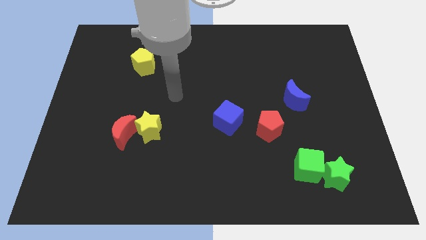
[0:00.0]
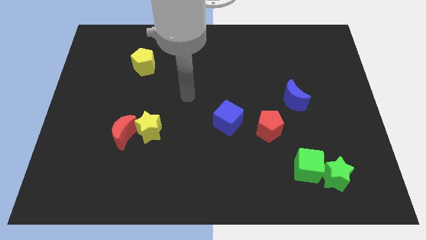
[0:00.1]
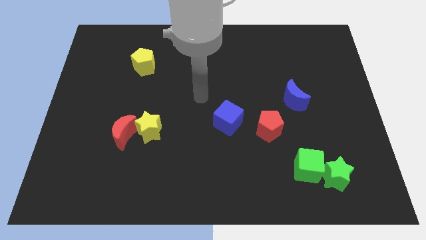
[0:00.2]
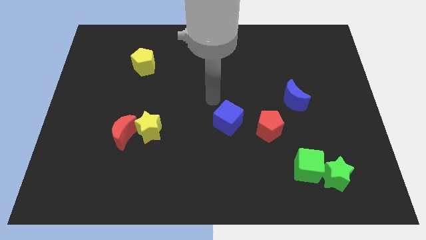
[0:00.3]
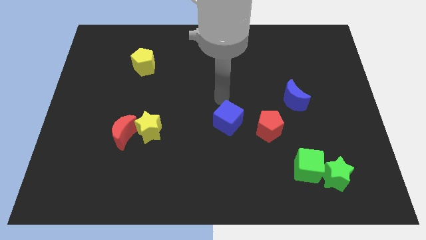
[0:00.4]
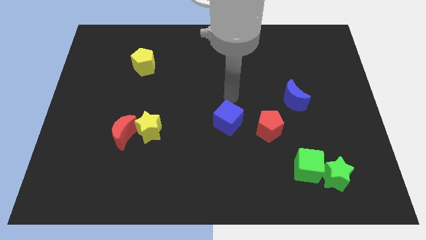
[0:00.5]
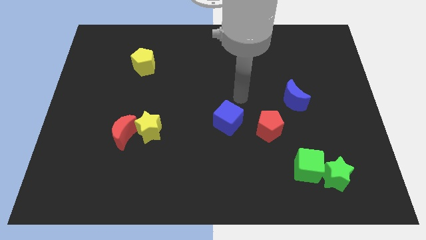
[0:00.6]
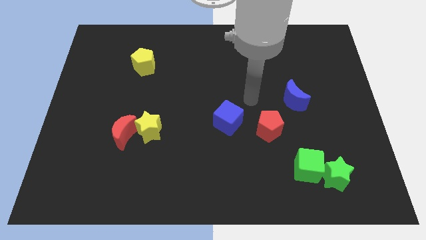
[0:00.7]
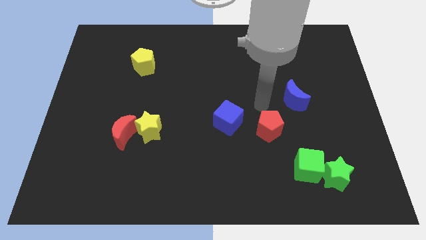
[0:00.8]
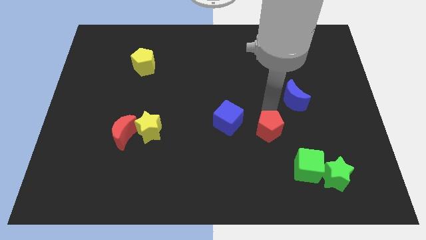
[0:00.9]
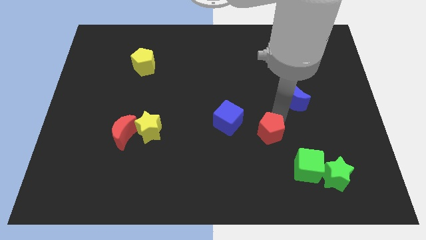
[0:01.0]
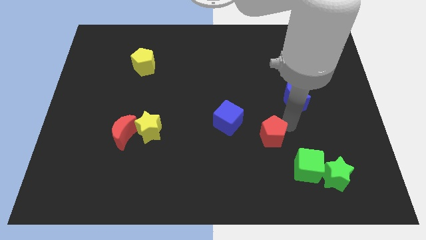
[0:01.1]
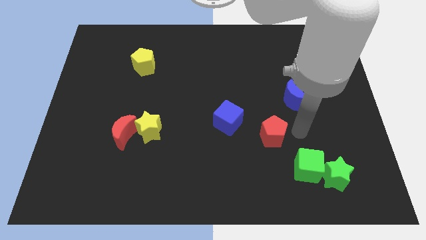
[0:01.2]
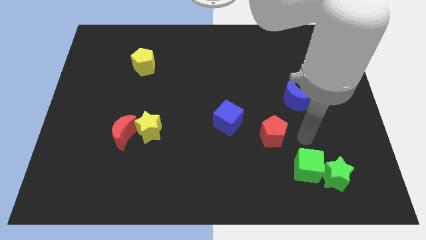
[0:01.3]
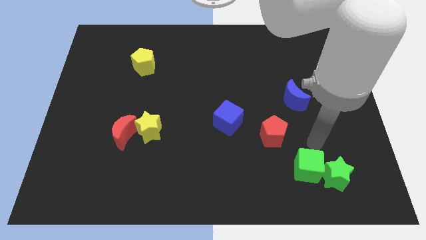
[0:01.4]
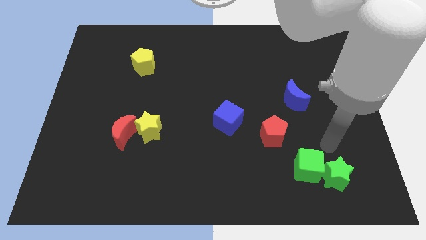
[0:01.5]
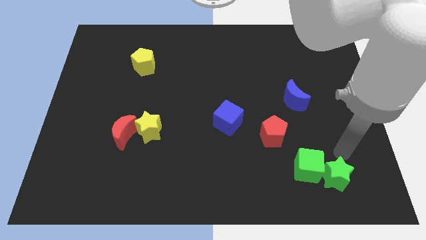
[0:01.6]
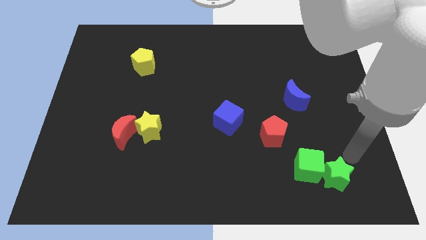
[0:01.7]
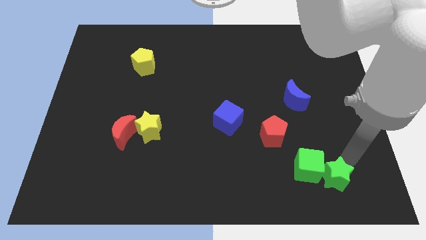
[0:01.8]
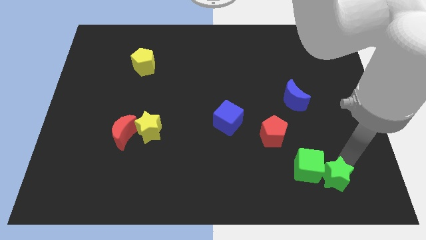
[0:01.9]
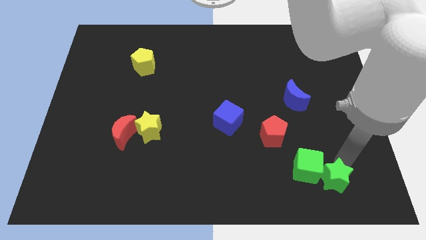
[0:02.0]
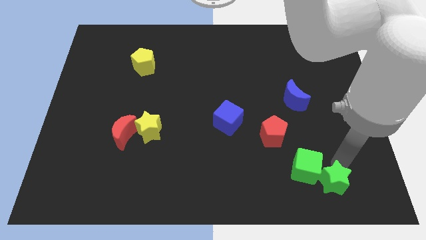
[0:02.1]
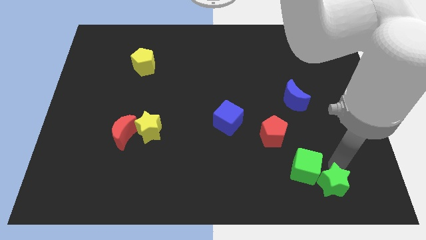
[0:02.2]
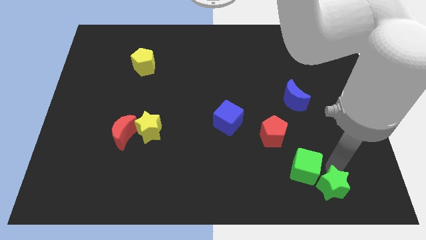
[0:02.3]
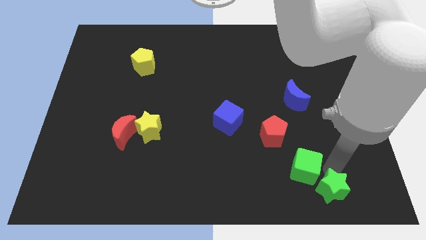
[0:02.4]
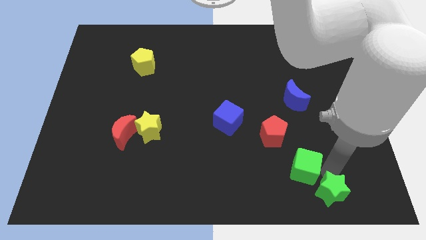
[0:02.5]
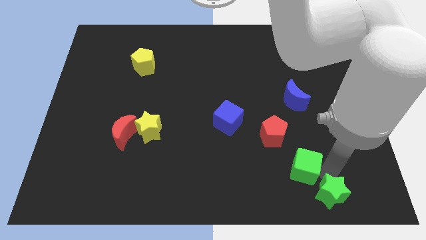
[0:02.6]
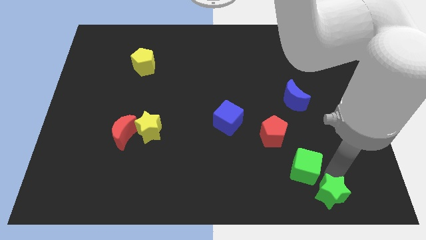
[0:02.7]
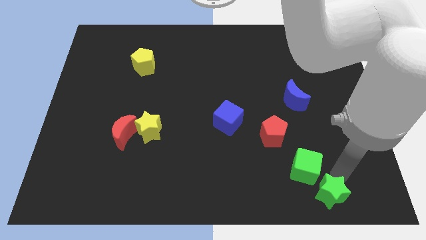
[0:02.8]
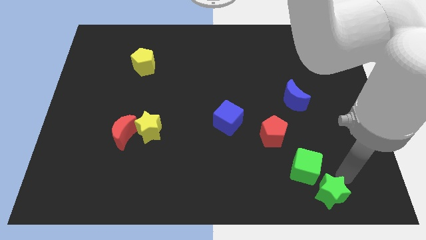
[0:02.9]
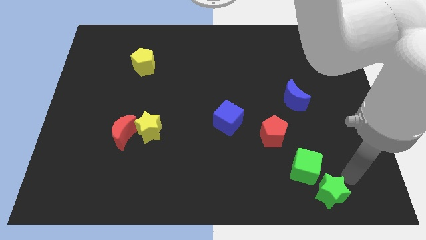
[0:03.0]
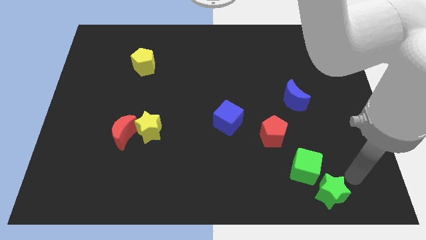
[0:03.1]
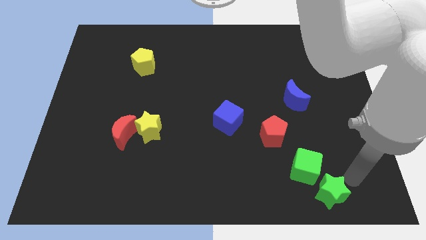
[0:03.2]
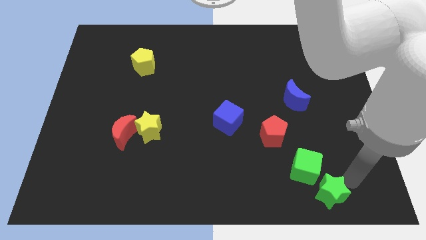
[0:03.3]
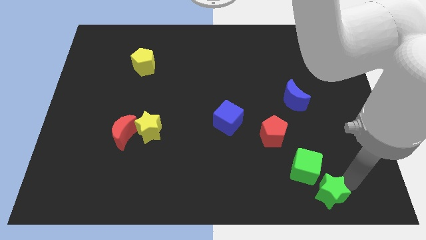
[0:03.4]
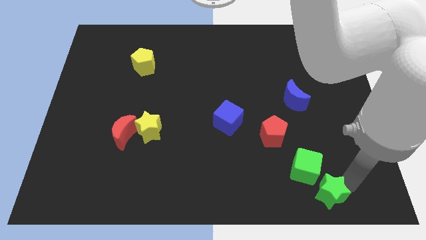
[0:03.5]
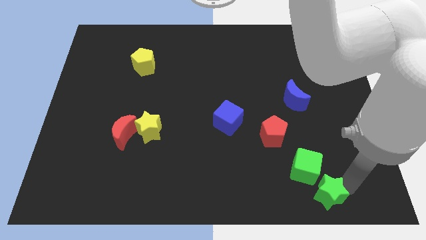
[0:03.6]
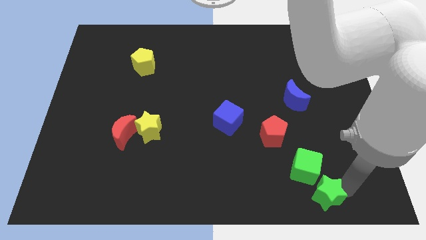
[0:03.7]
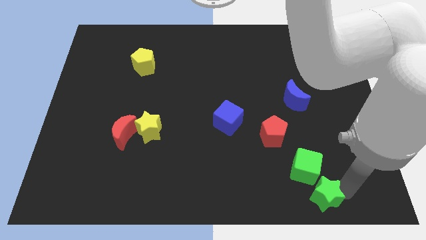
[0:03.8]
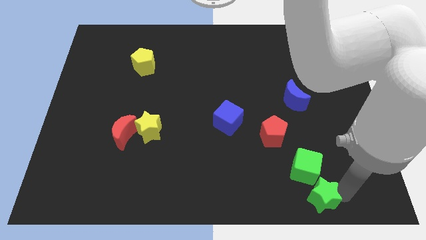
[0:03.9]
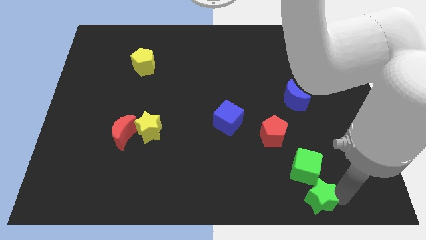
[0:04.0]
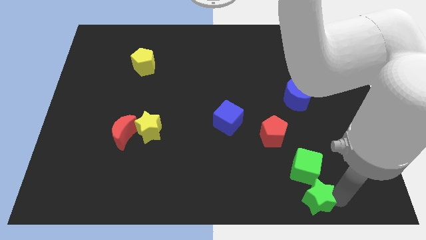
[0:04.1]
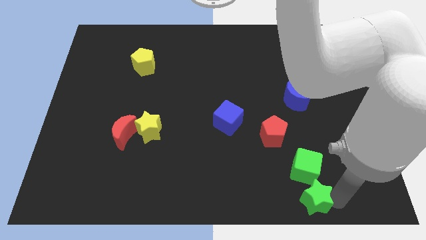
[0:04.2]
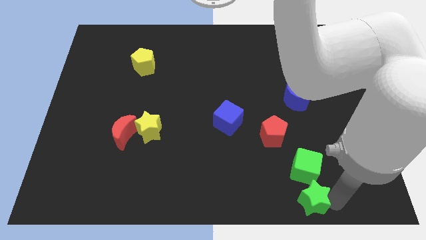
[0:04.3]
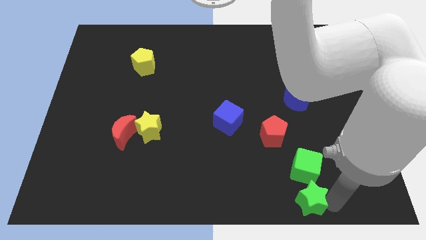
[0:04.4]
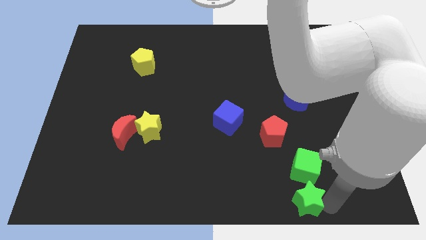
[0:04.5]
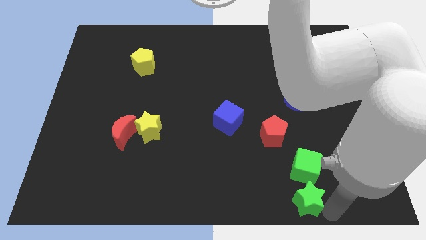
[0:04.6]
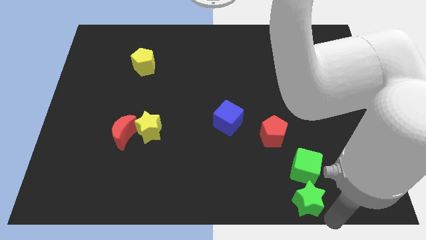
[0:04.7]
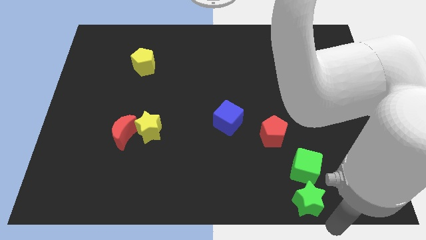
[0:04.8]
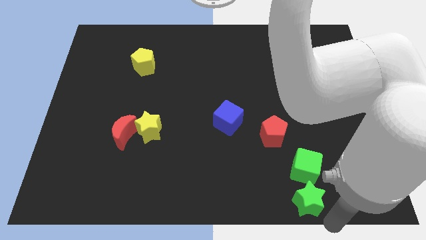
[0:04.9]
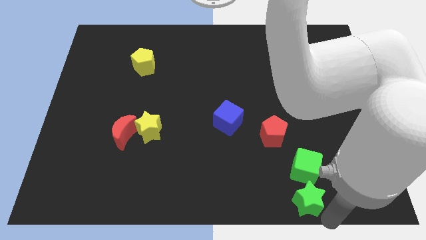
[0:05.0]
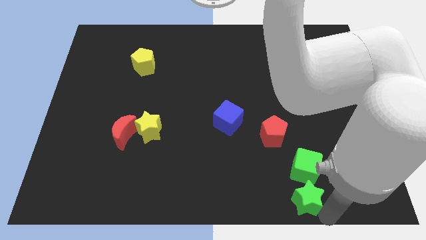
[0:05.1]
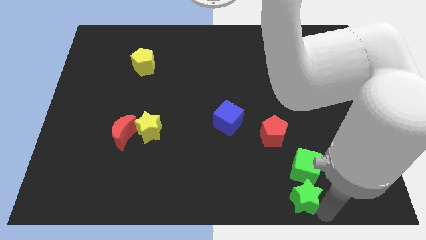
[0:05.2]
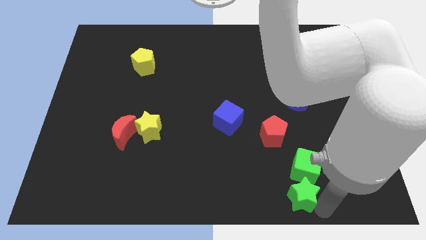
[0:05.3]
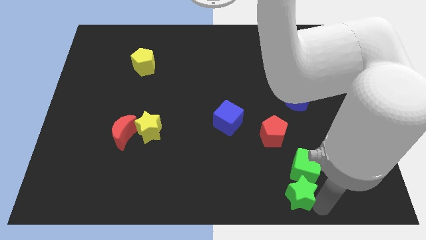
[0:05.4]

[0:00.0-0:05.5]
move the green star to the bottom side of the red pentagon

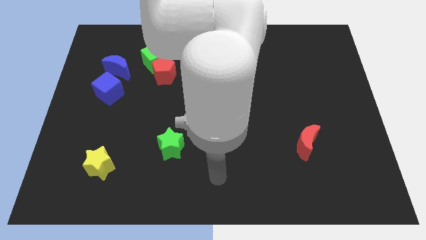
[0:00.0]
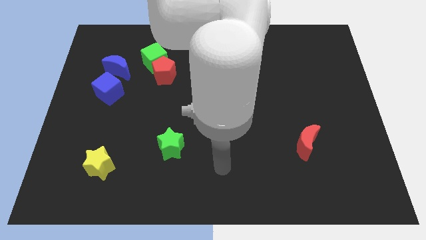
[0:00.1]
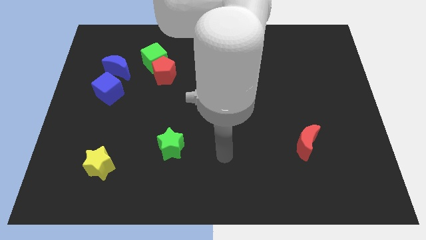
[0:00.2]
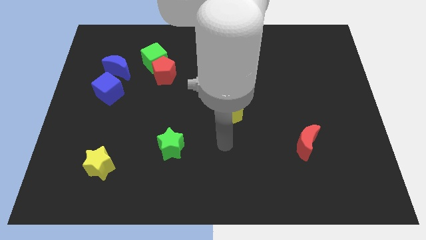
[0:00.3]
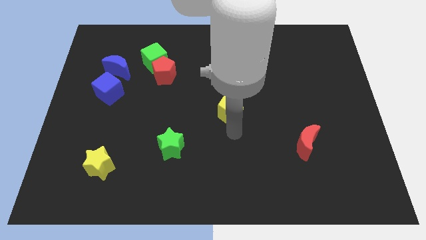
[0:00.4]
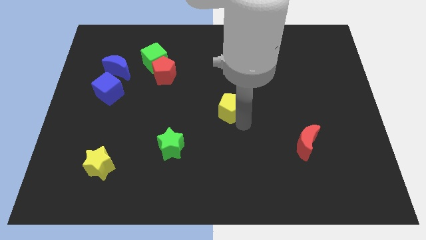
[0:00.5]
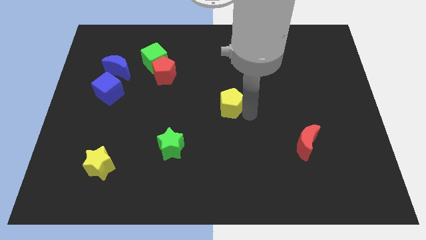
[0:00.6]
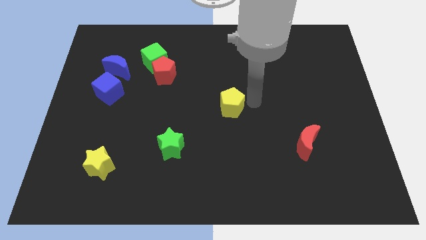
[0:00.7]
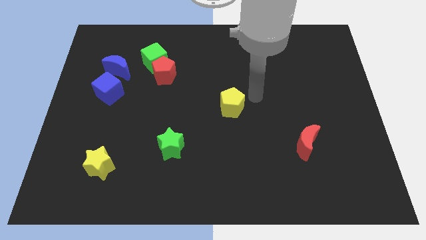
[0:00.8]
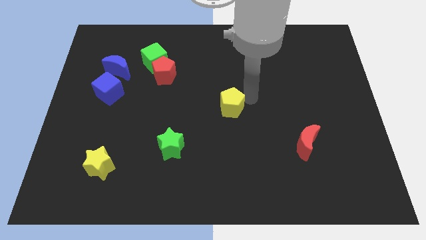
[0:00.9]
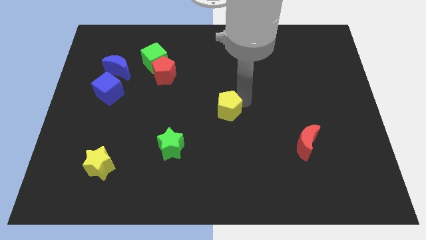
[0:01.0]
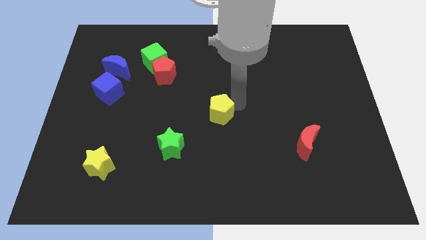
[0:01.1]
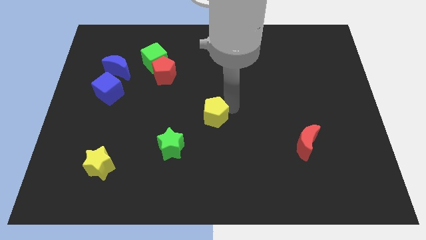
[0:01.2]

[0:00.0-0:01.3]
push the yellow pentagon diagonally up and to the right of the green star
